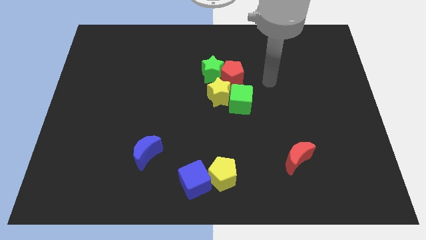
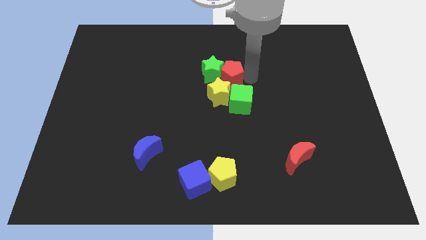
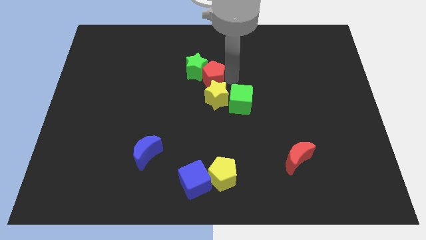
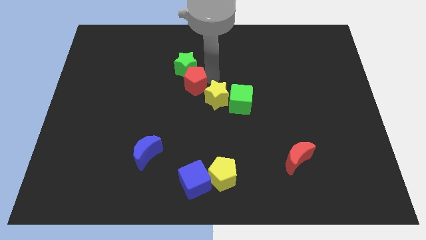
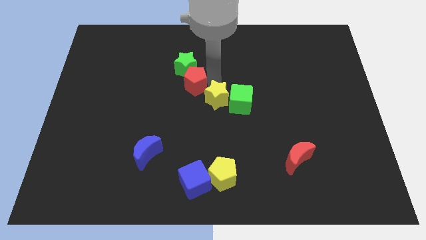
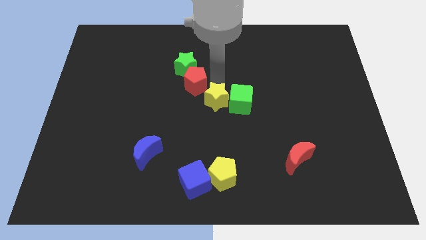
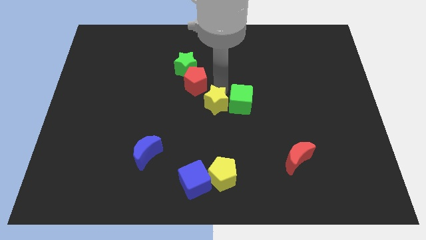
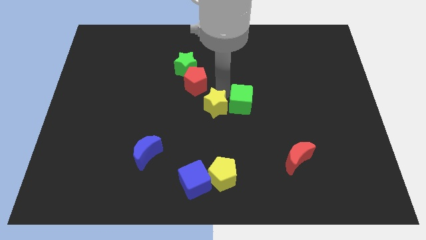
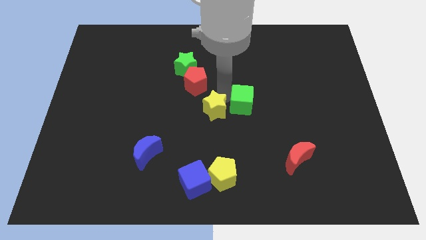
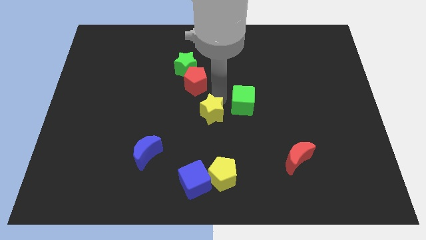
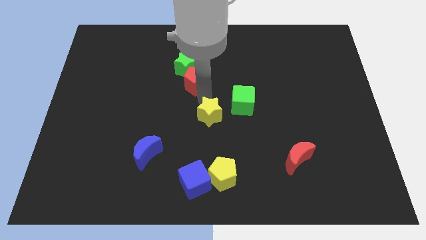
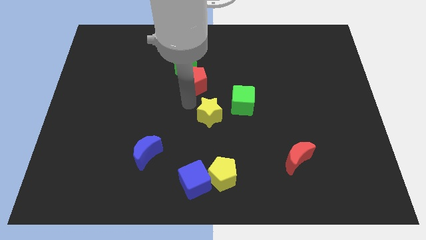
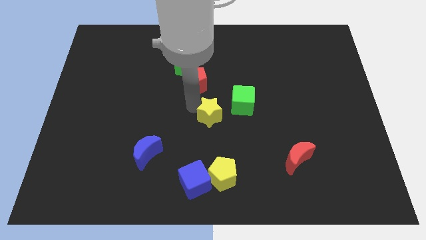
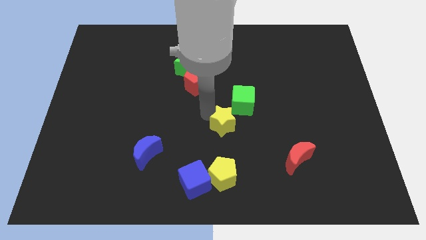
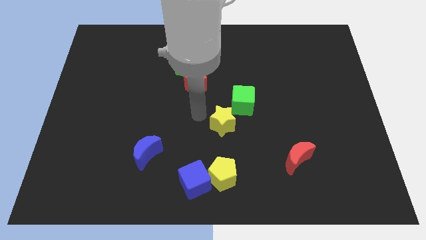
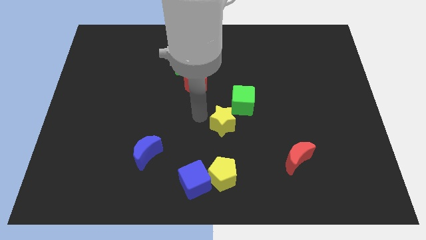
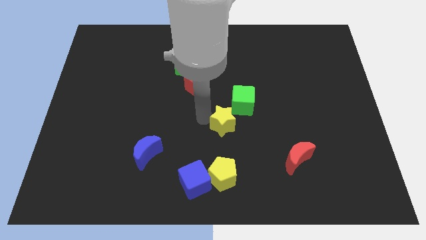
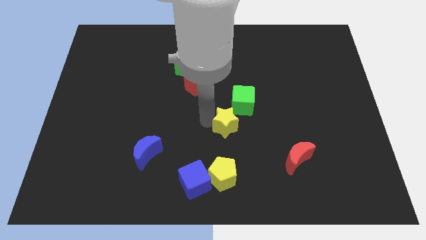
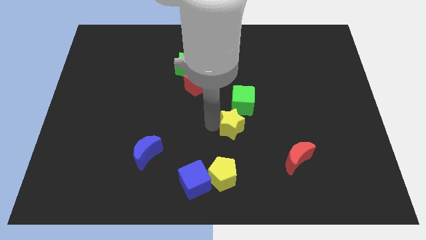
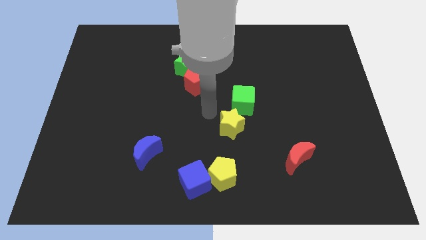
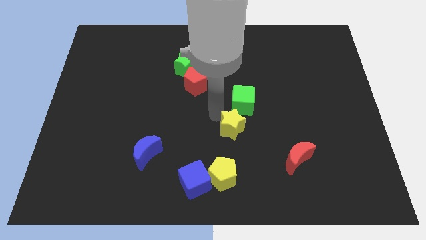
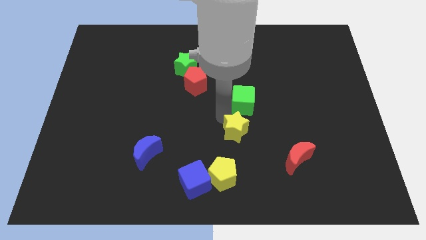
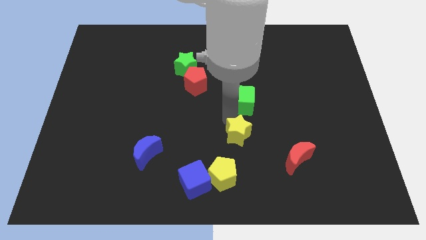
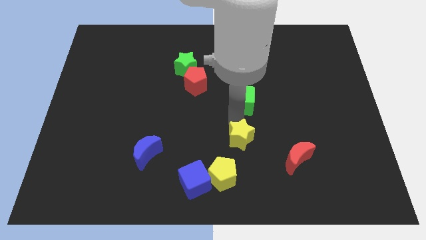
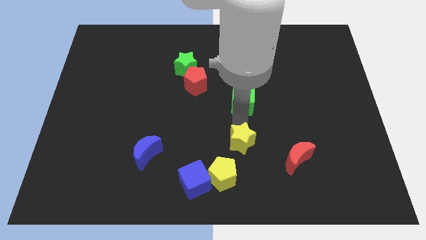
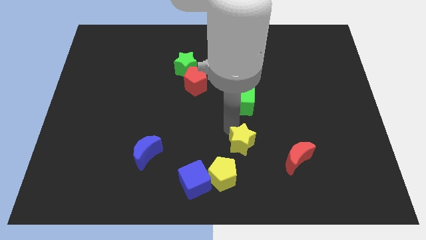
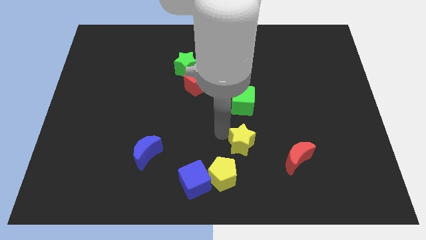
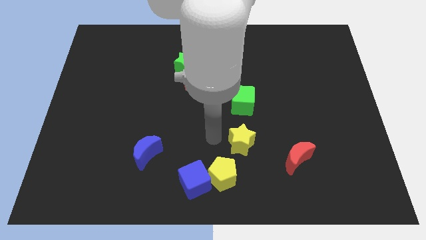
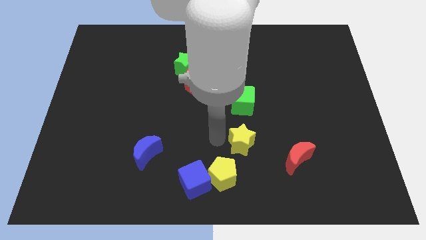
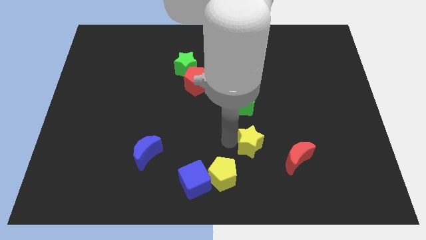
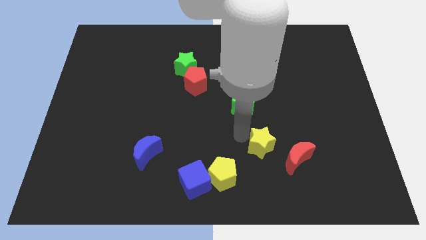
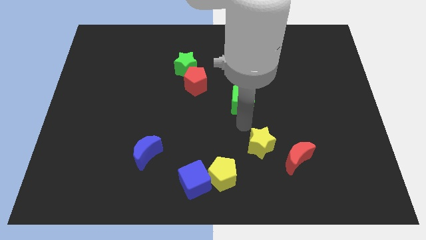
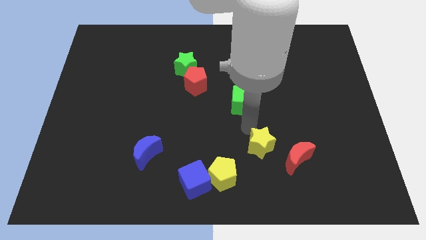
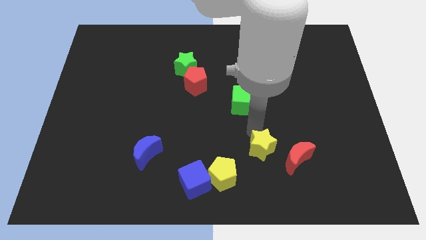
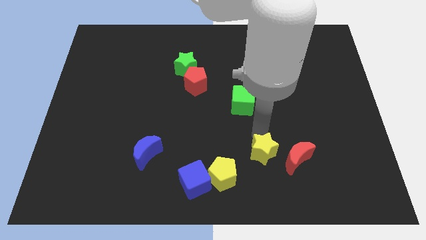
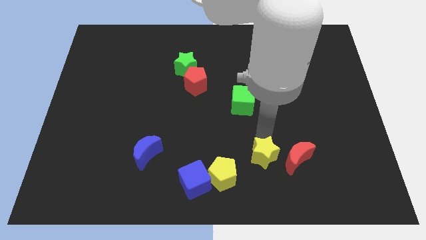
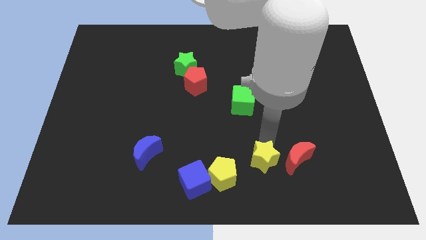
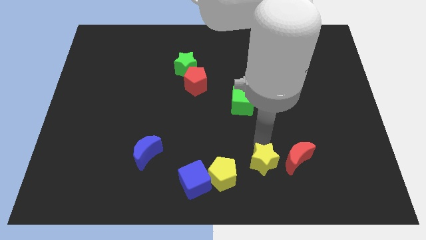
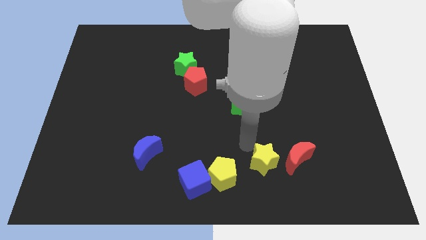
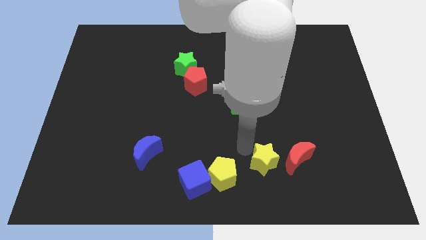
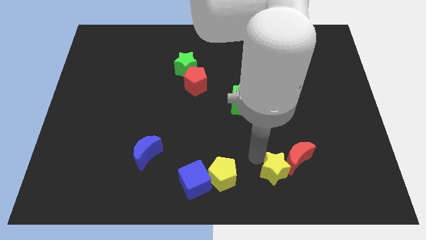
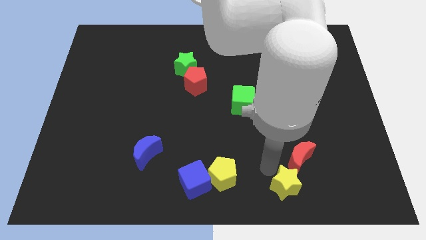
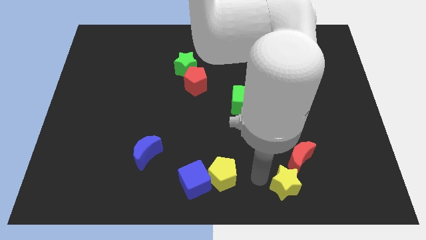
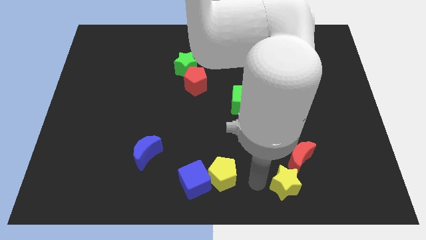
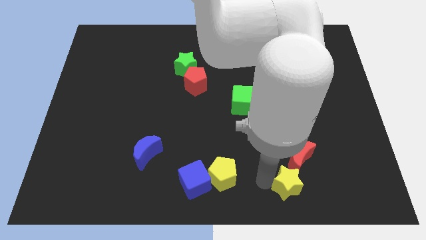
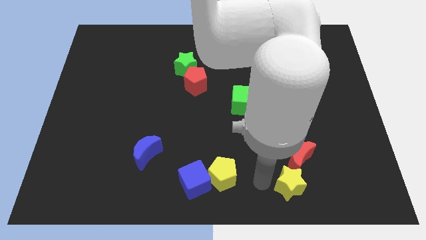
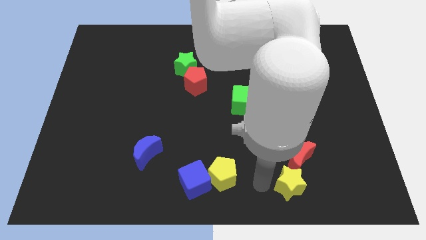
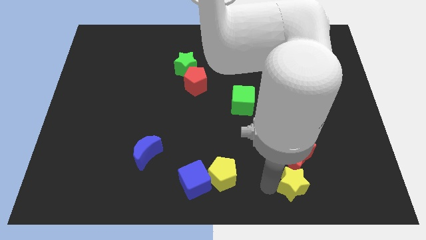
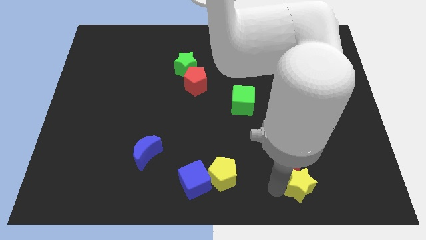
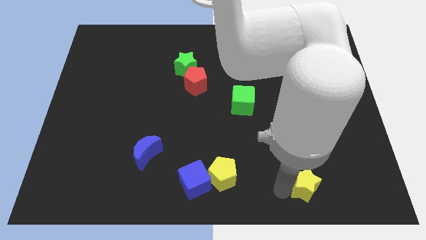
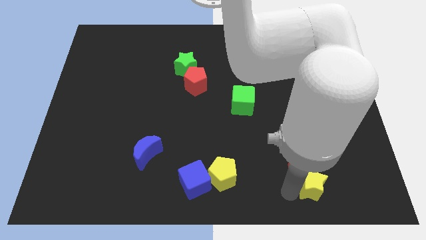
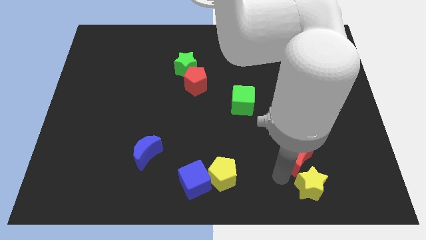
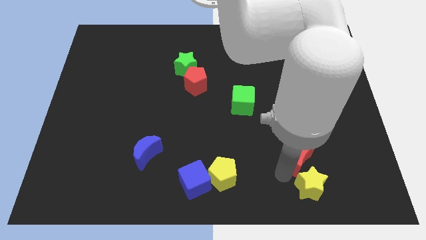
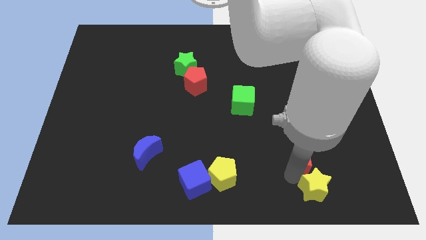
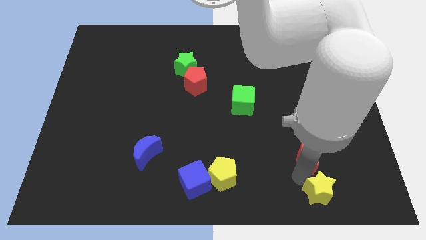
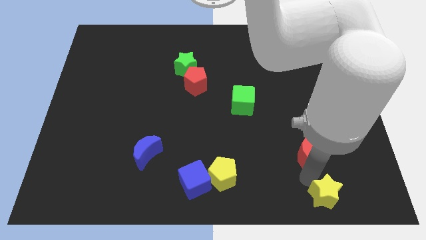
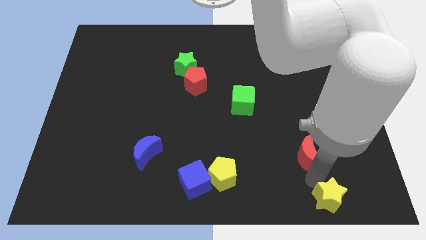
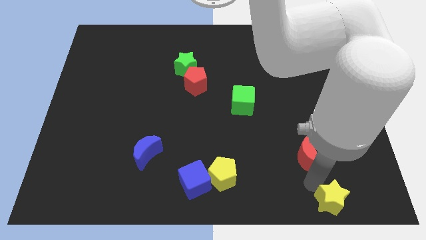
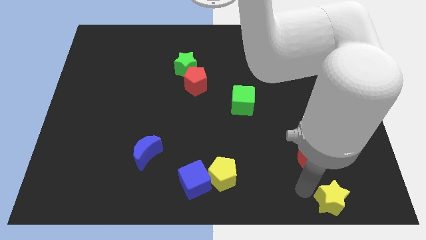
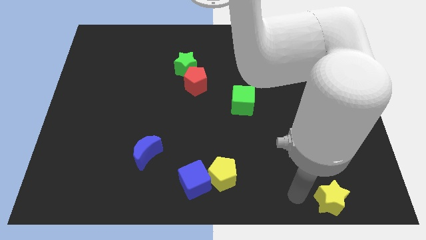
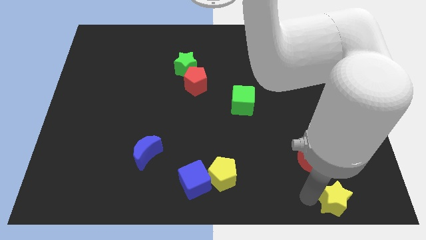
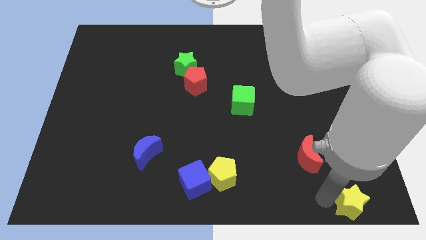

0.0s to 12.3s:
push the yellow star to the bottom right of the board

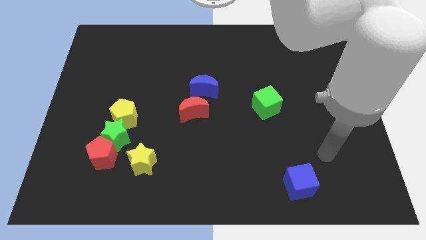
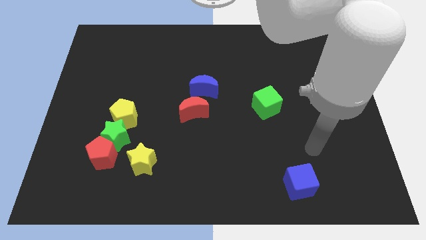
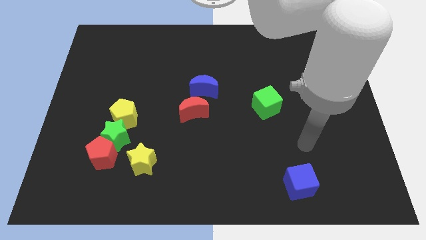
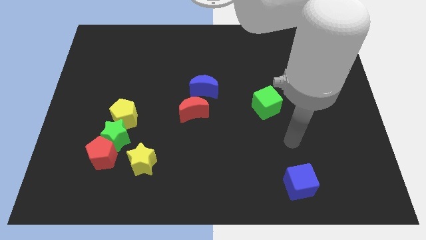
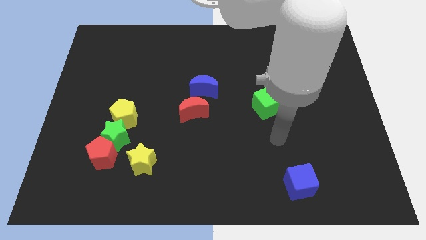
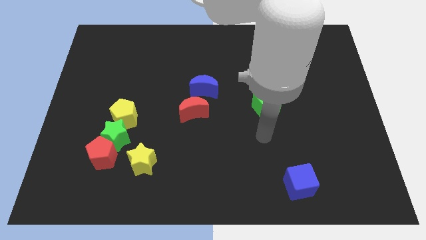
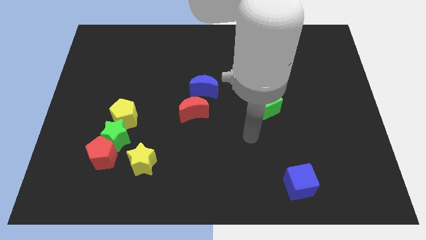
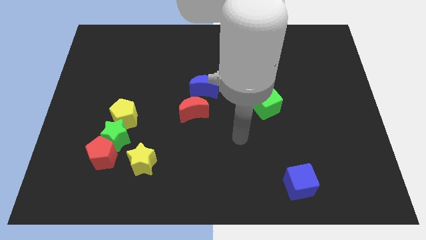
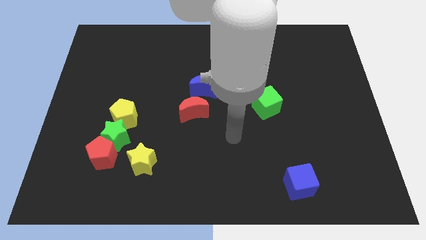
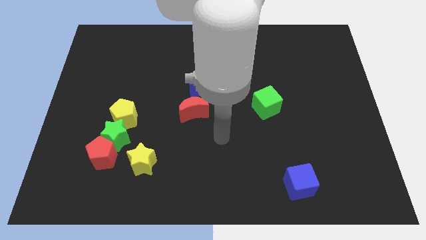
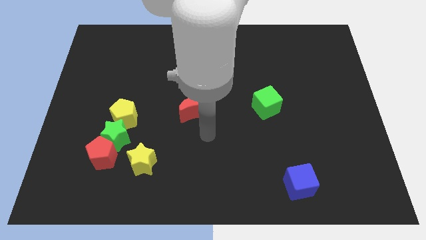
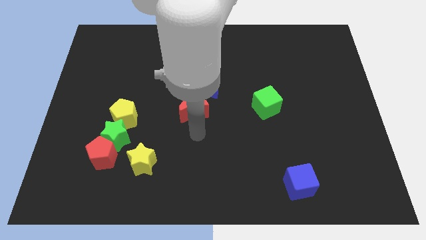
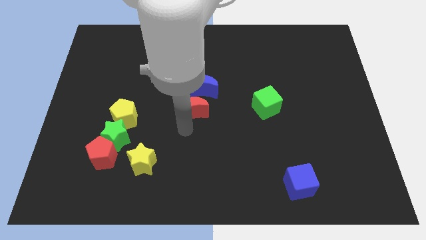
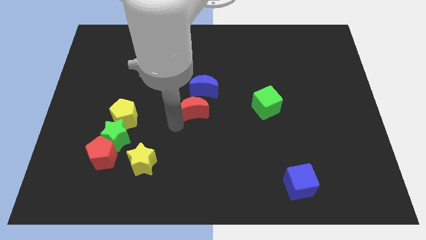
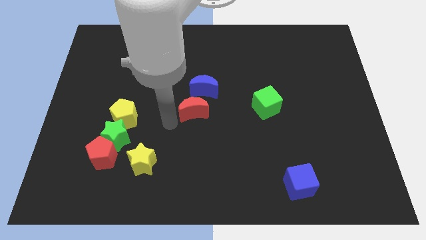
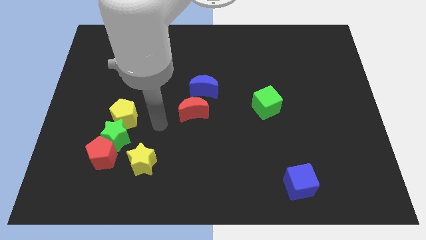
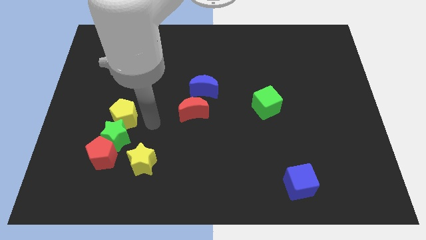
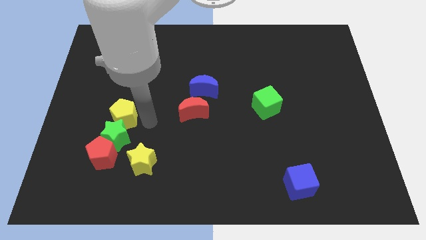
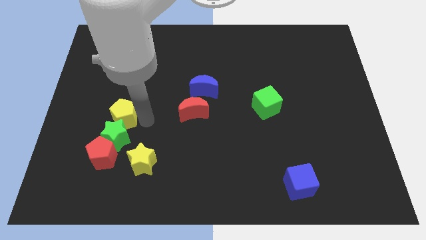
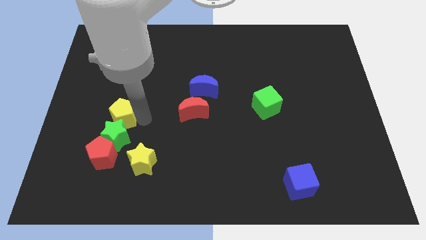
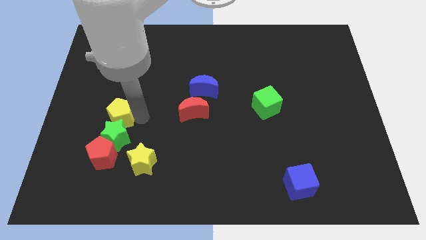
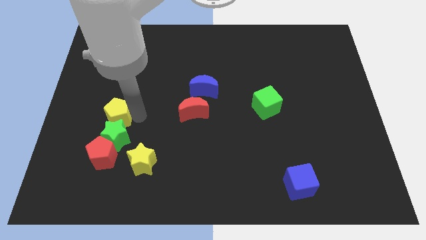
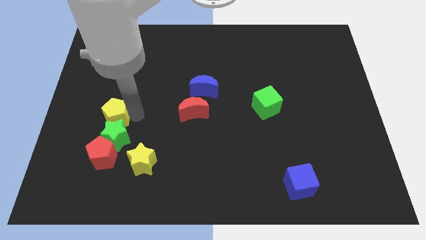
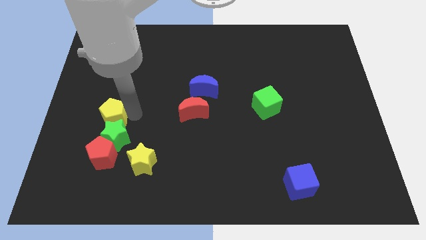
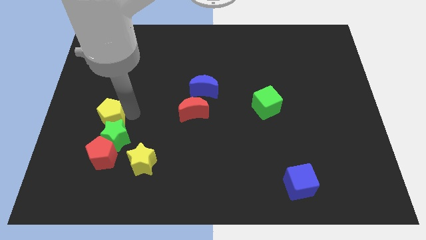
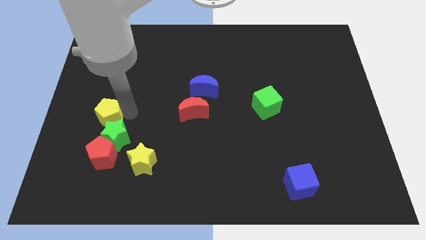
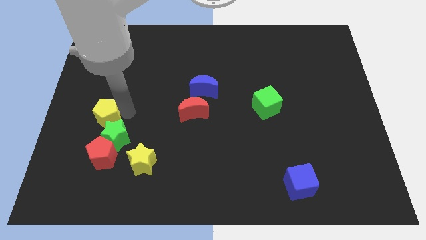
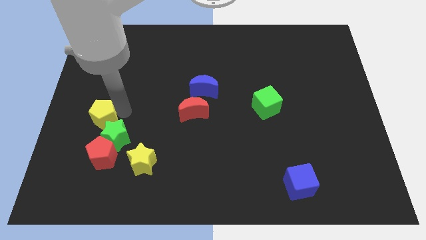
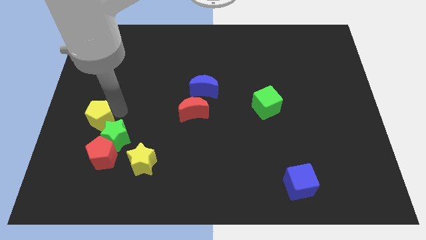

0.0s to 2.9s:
push the yellow pentagon to the left side of the board
